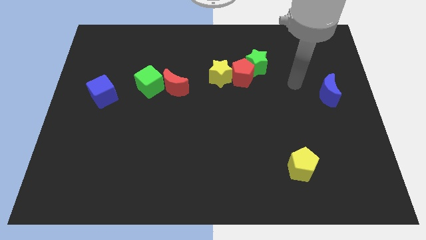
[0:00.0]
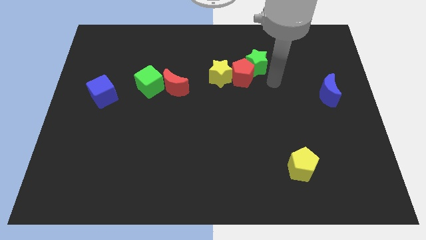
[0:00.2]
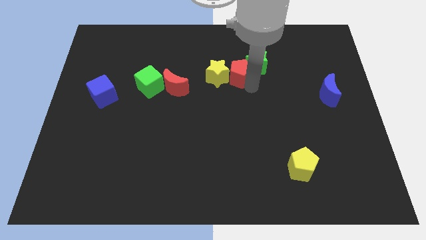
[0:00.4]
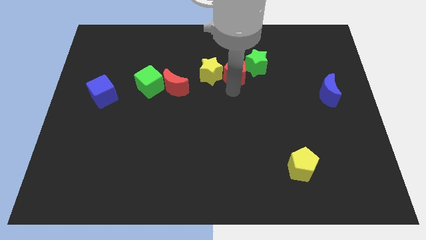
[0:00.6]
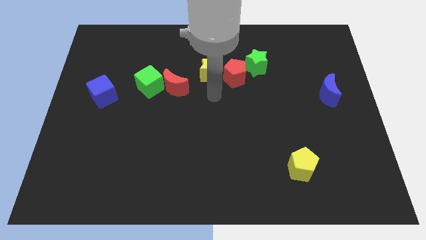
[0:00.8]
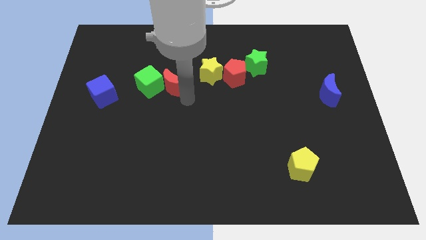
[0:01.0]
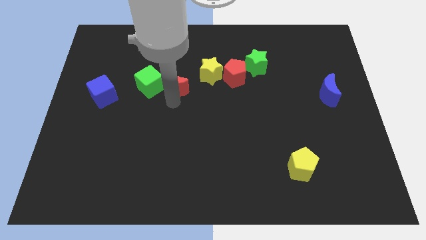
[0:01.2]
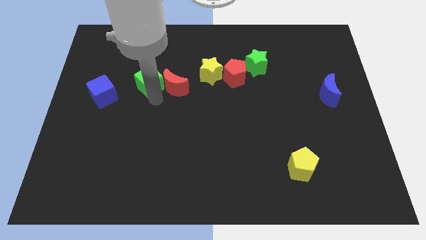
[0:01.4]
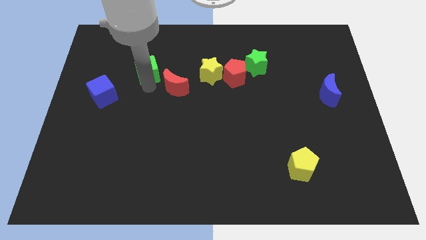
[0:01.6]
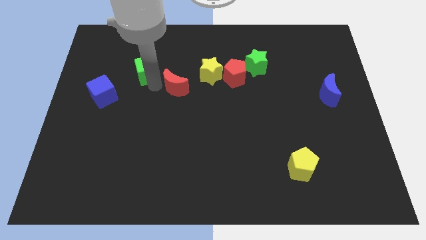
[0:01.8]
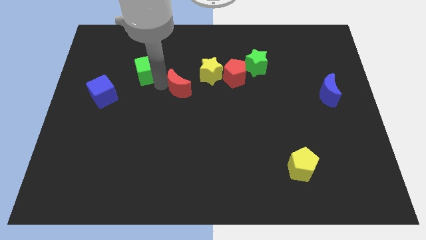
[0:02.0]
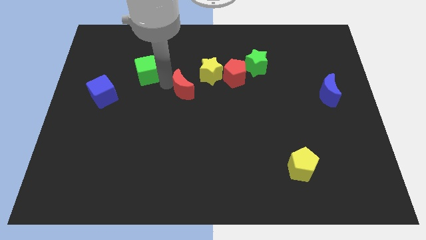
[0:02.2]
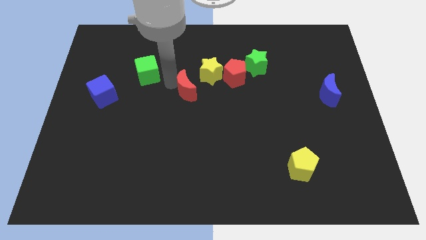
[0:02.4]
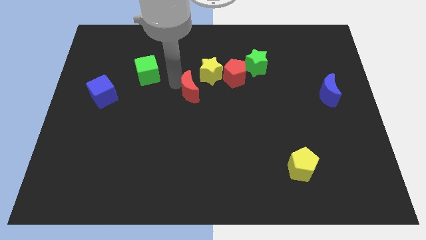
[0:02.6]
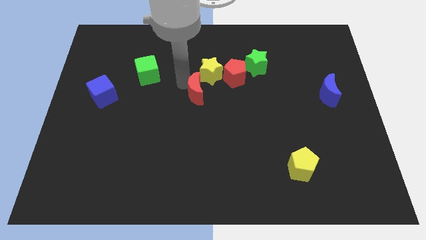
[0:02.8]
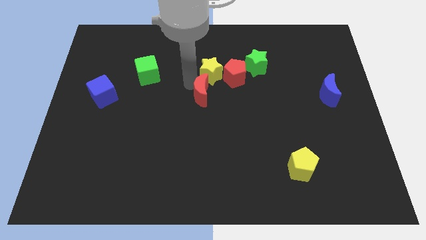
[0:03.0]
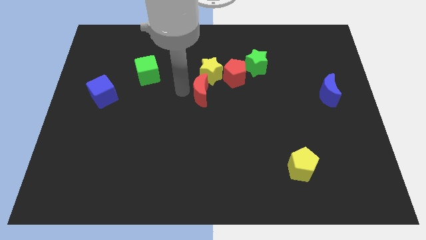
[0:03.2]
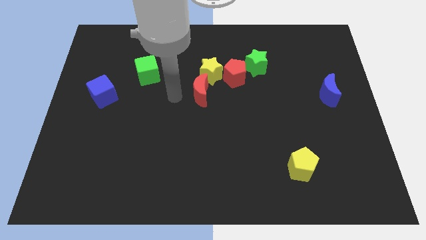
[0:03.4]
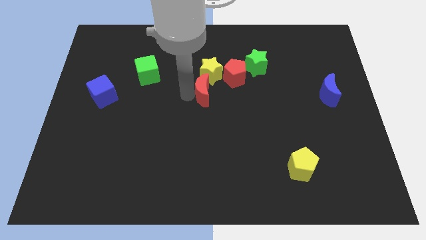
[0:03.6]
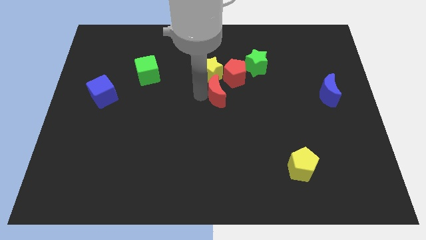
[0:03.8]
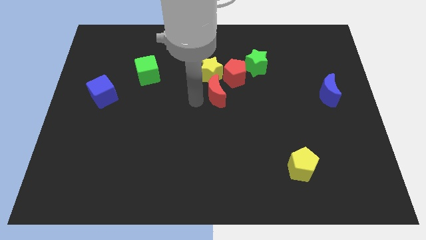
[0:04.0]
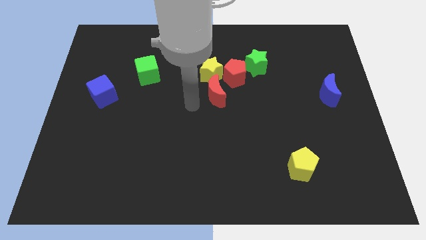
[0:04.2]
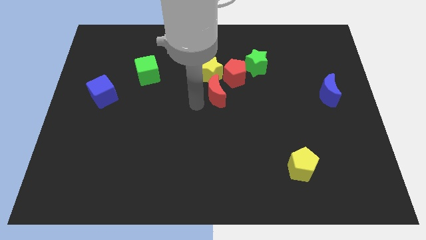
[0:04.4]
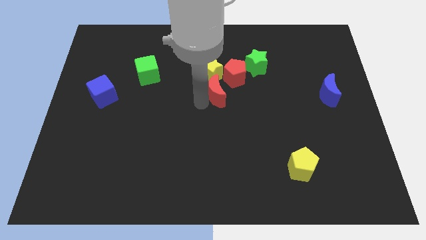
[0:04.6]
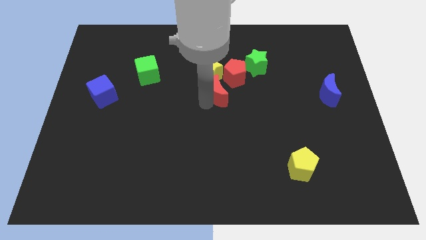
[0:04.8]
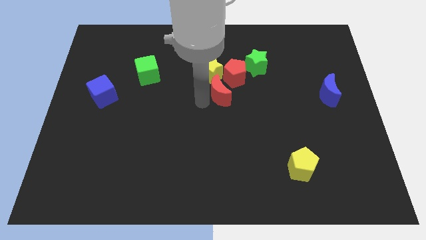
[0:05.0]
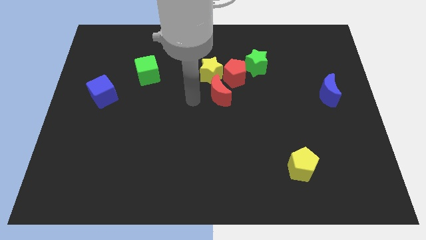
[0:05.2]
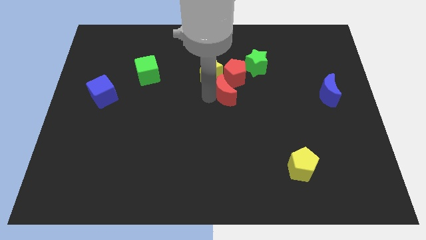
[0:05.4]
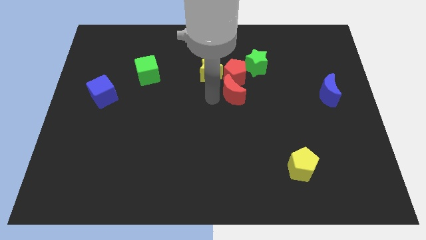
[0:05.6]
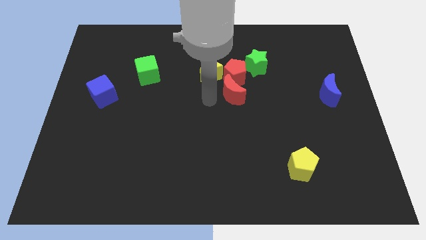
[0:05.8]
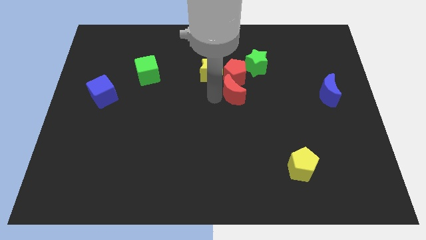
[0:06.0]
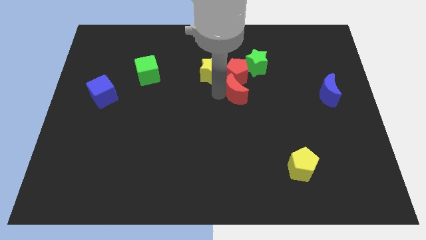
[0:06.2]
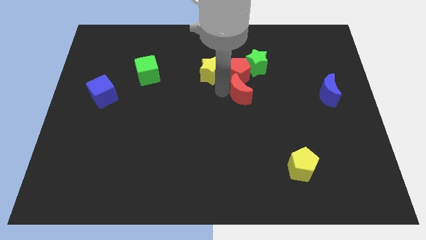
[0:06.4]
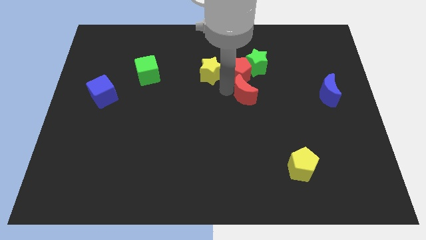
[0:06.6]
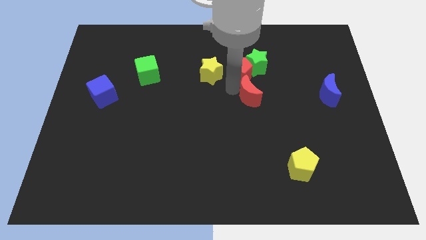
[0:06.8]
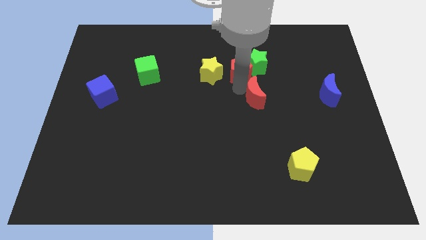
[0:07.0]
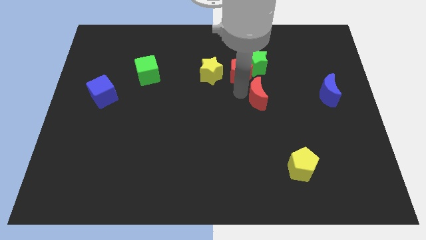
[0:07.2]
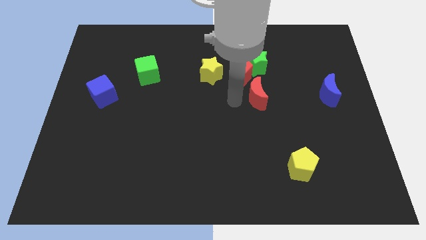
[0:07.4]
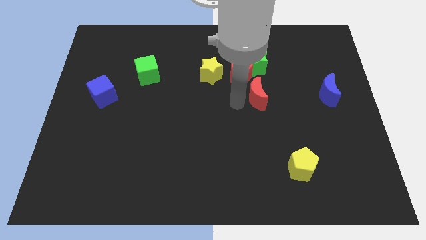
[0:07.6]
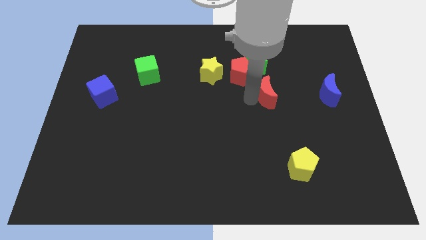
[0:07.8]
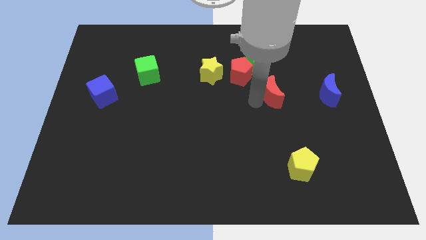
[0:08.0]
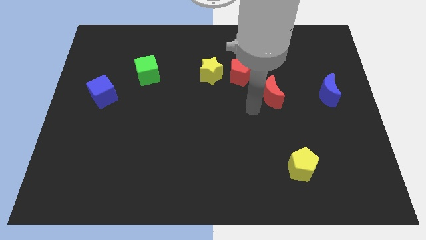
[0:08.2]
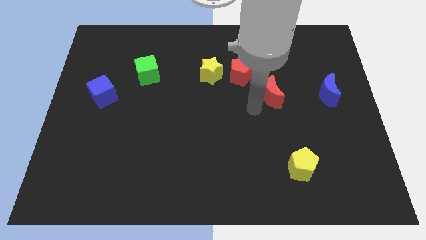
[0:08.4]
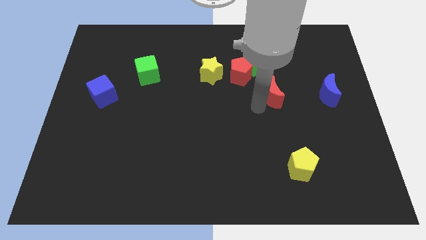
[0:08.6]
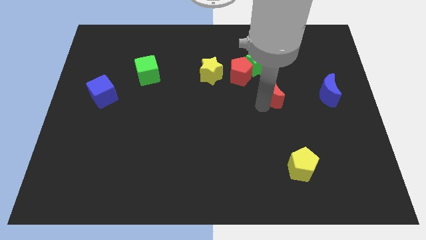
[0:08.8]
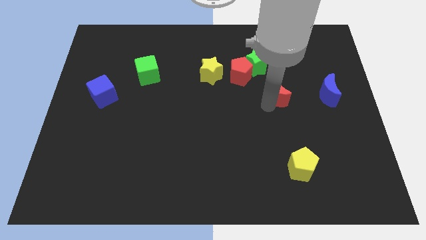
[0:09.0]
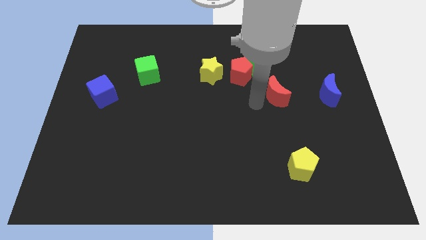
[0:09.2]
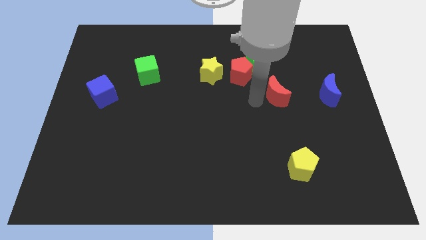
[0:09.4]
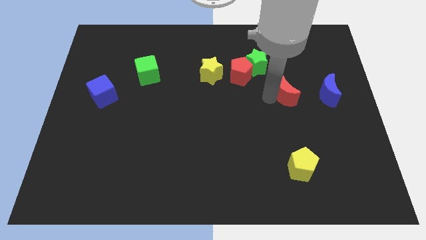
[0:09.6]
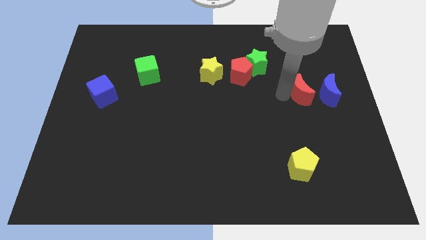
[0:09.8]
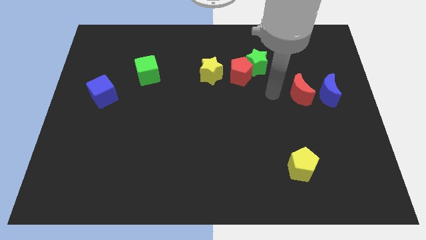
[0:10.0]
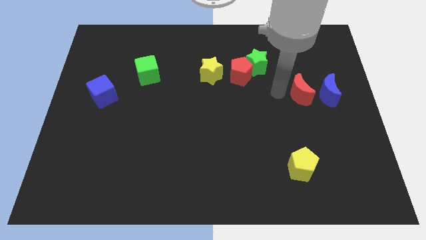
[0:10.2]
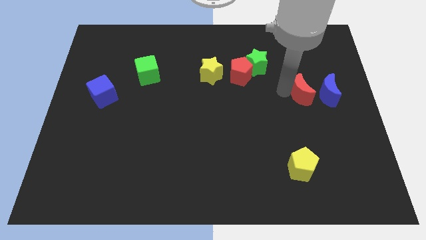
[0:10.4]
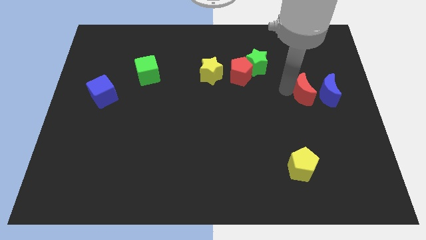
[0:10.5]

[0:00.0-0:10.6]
move the red moon towards the blue moon

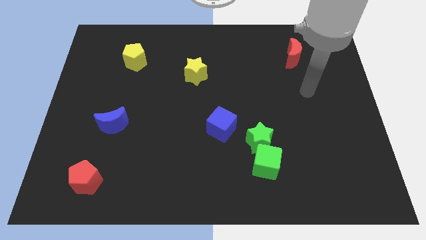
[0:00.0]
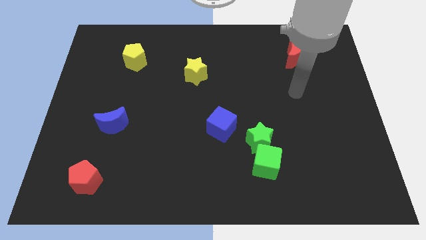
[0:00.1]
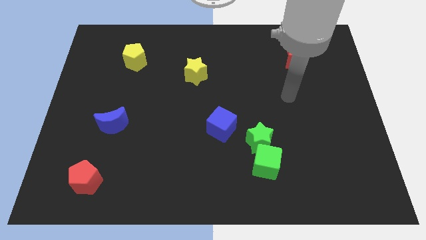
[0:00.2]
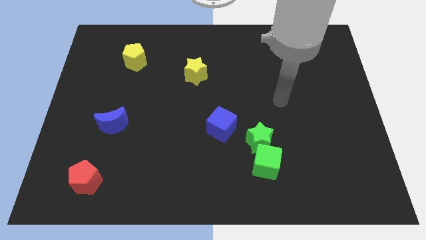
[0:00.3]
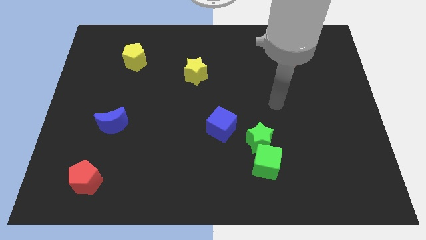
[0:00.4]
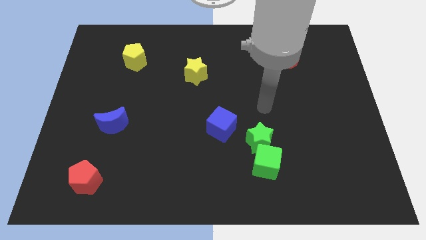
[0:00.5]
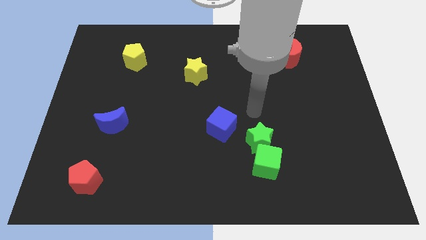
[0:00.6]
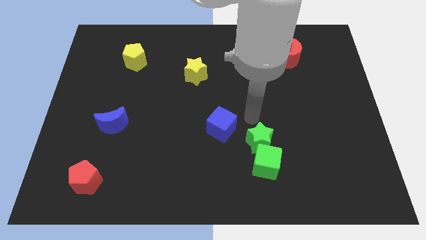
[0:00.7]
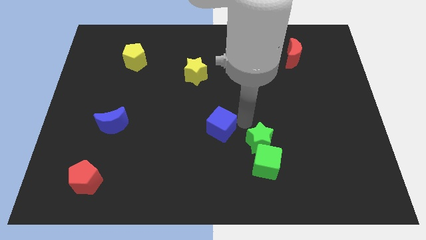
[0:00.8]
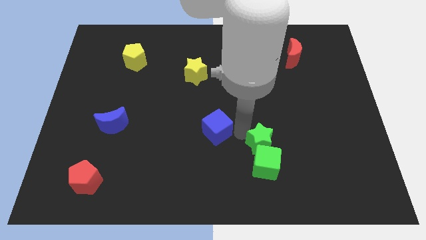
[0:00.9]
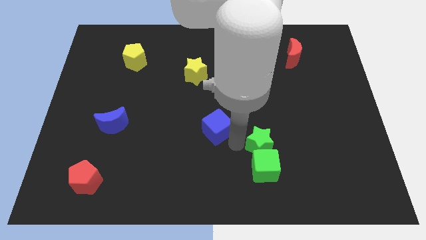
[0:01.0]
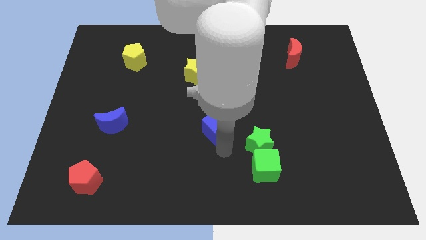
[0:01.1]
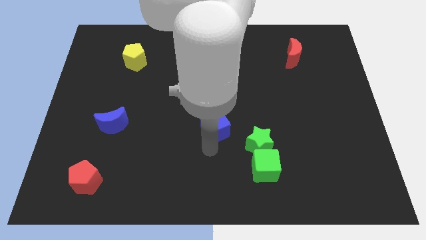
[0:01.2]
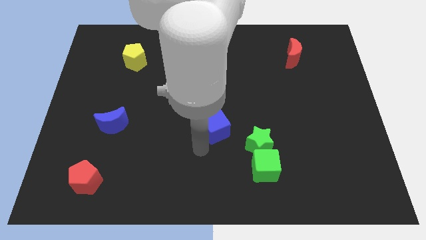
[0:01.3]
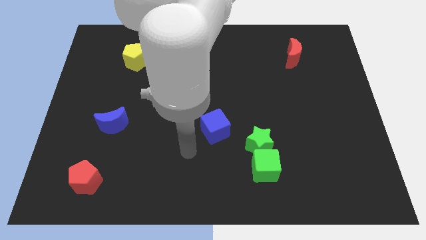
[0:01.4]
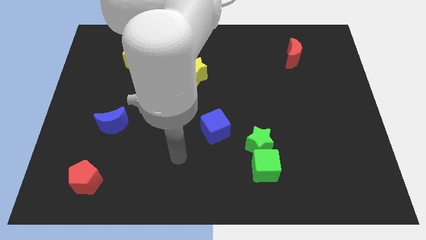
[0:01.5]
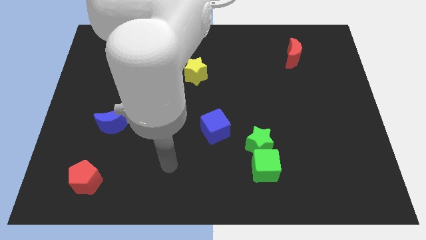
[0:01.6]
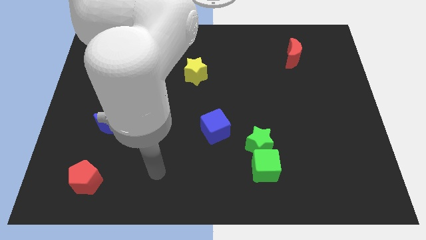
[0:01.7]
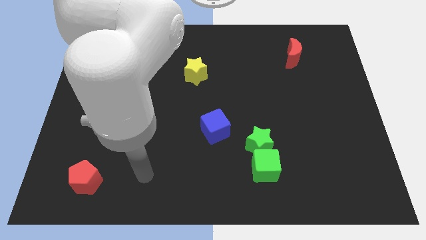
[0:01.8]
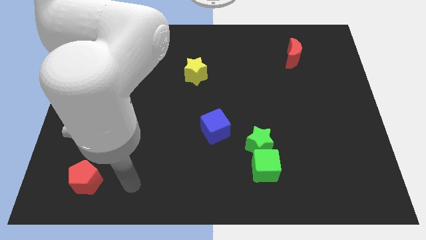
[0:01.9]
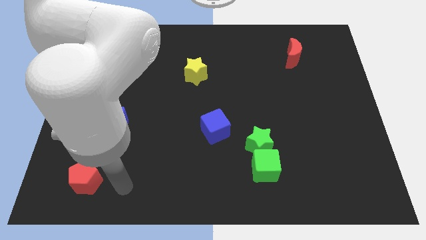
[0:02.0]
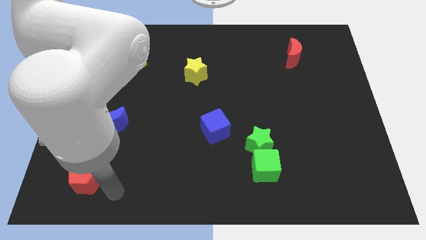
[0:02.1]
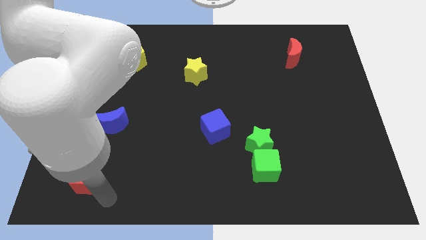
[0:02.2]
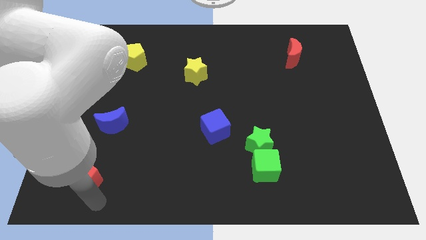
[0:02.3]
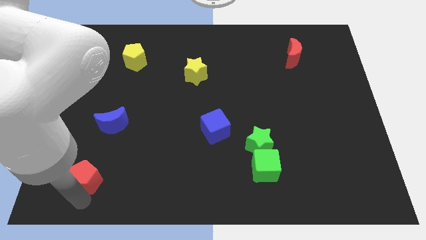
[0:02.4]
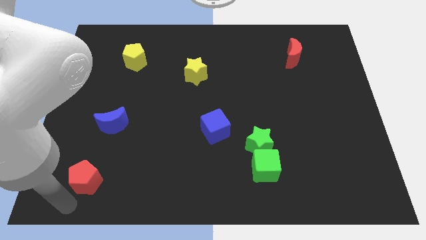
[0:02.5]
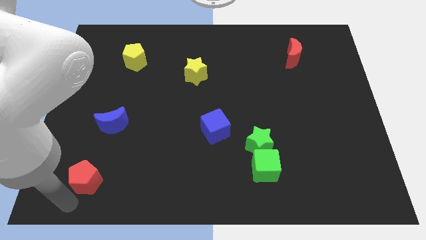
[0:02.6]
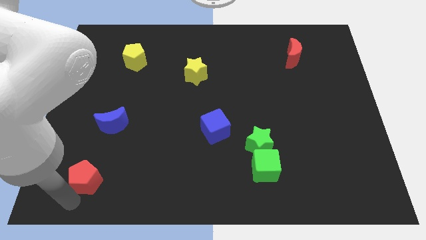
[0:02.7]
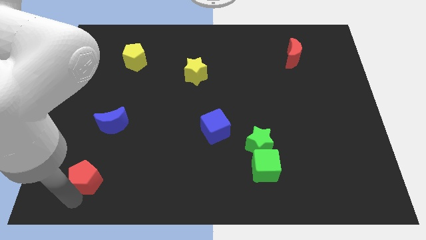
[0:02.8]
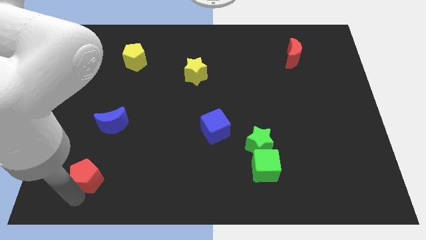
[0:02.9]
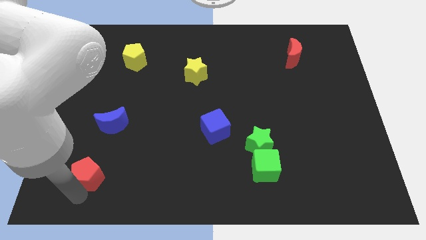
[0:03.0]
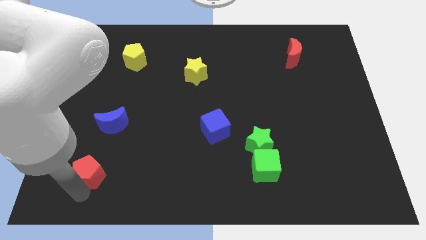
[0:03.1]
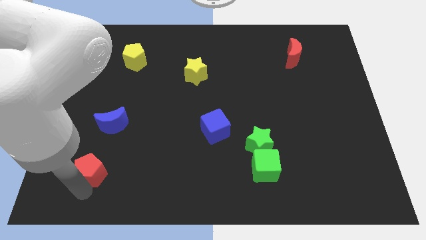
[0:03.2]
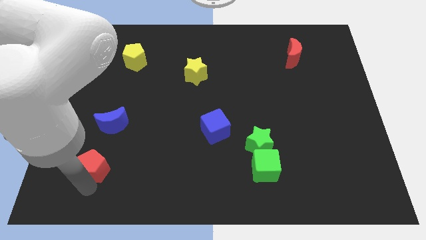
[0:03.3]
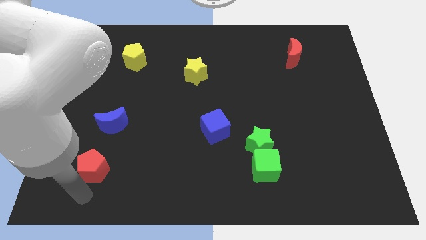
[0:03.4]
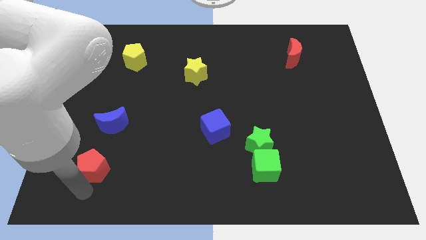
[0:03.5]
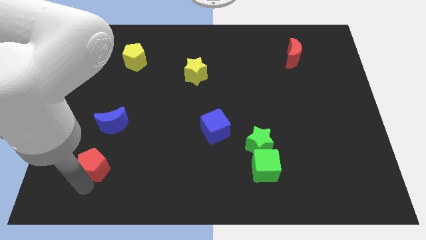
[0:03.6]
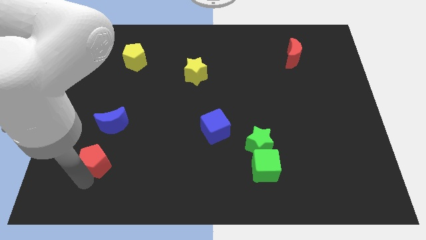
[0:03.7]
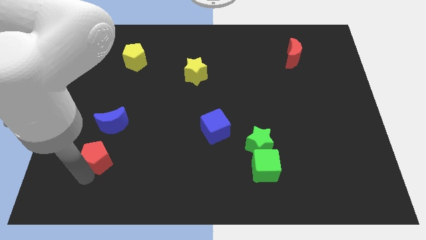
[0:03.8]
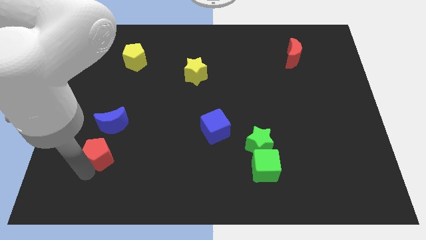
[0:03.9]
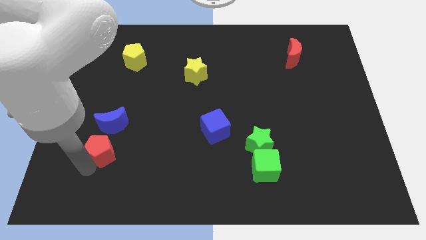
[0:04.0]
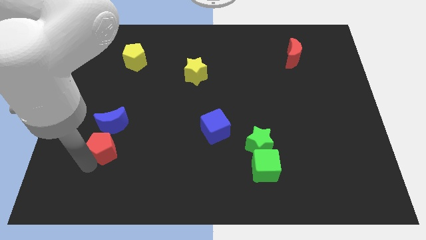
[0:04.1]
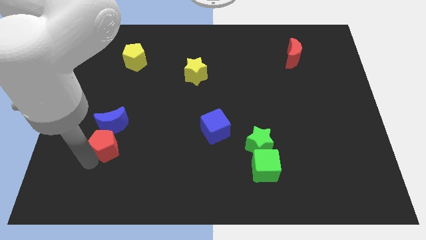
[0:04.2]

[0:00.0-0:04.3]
move the red pentagon to the blue moon
